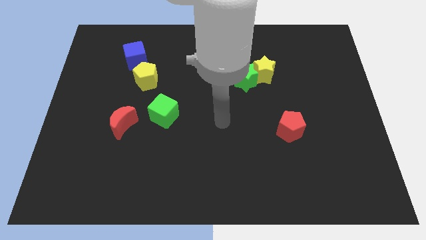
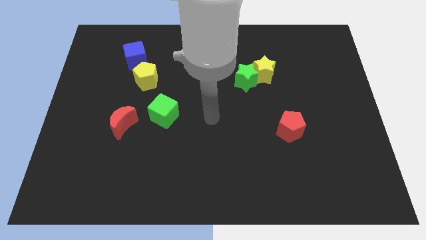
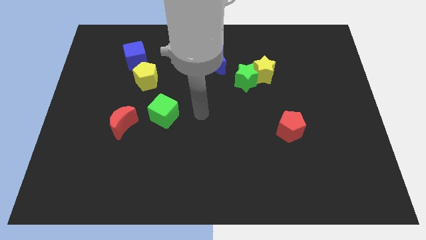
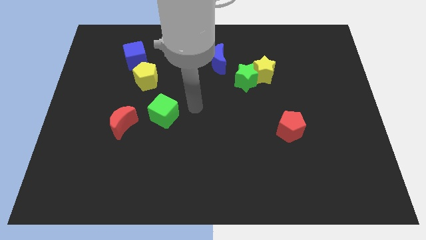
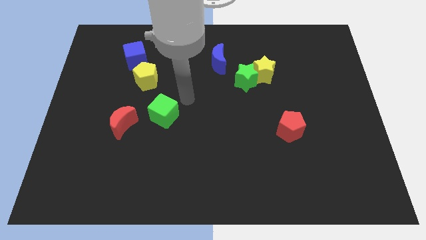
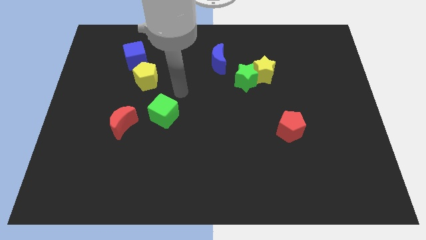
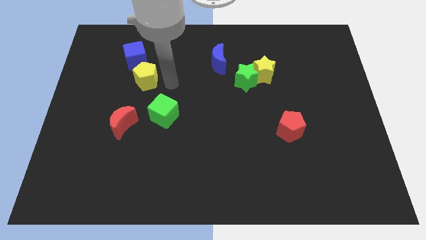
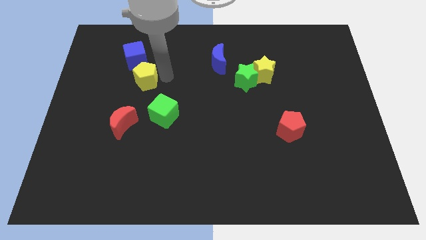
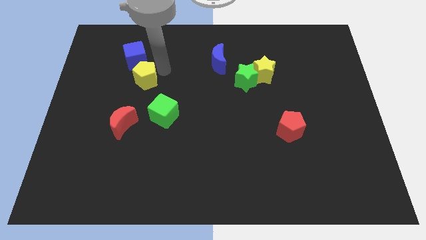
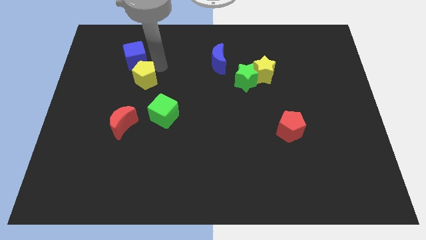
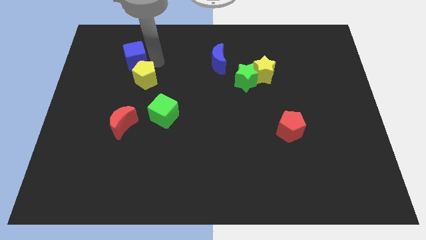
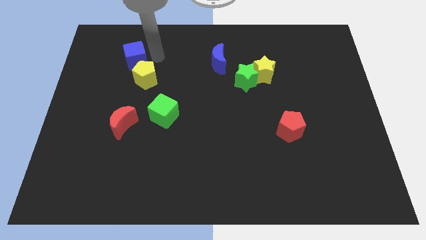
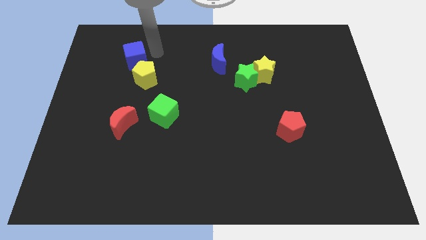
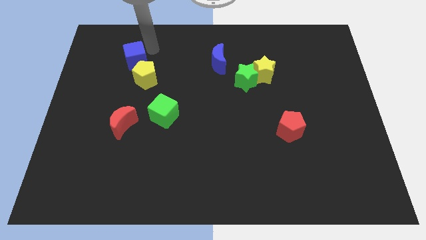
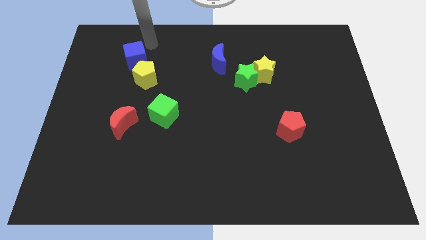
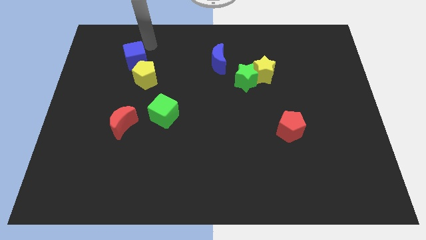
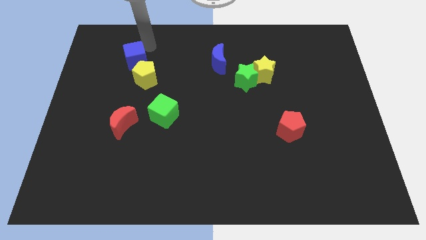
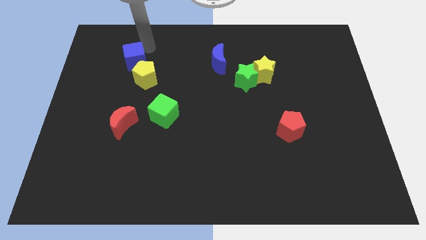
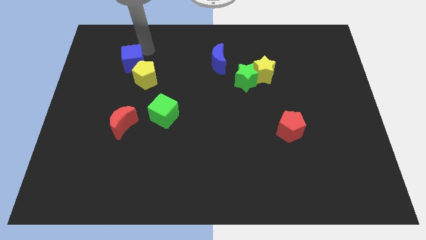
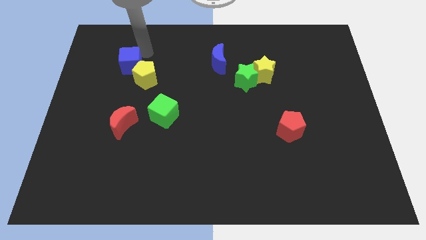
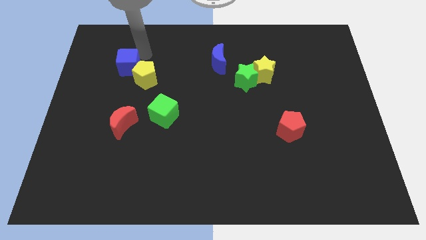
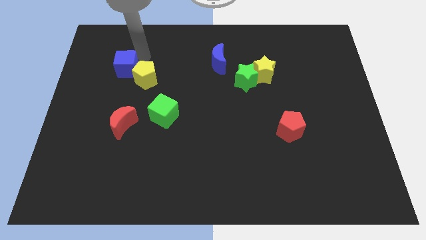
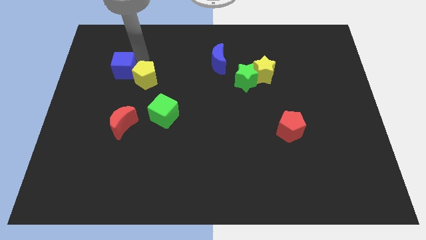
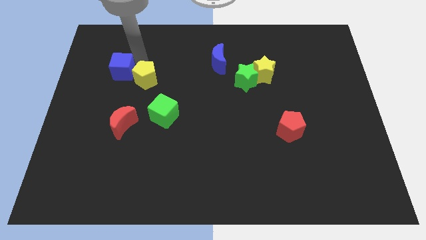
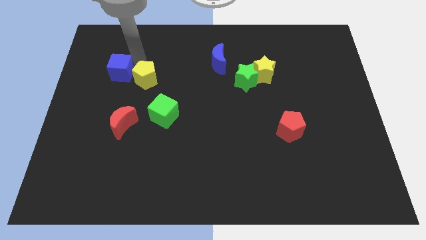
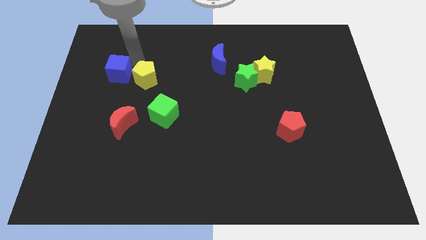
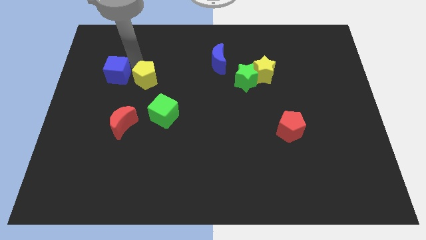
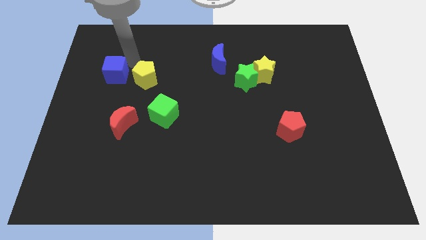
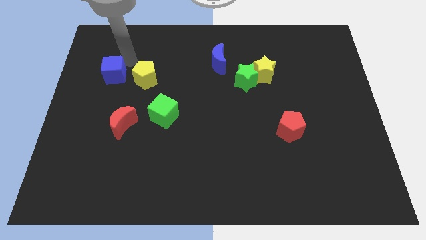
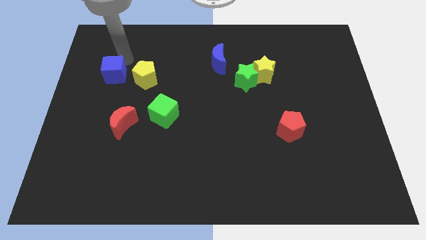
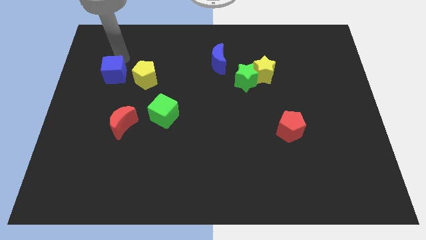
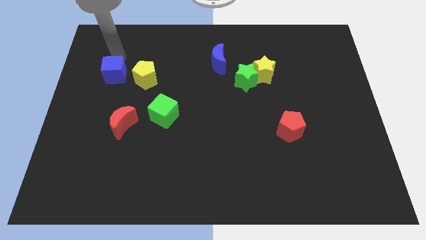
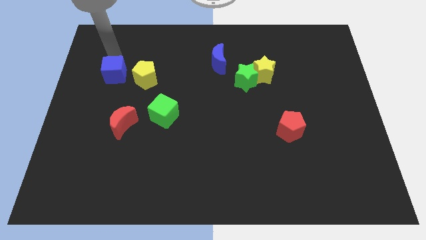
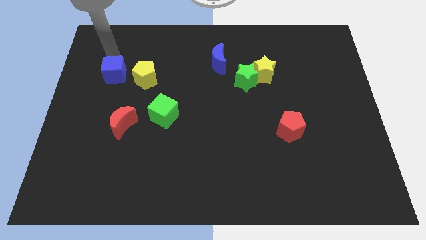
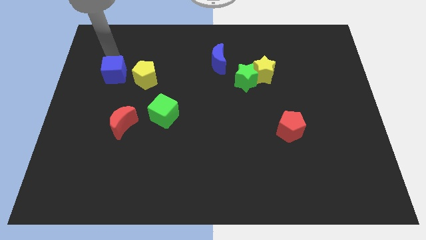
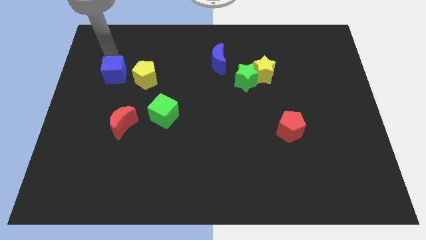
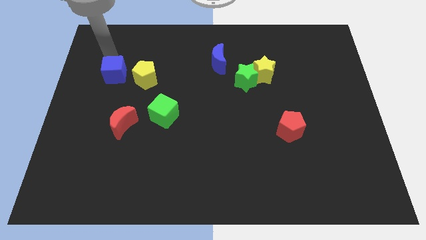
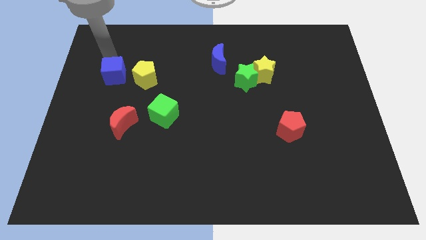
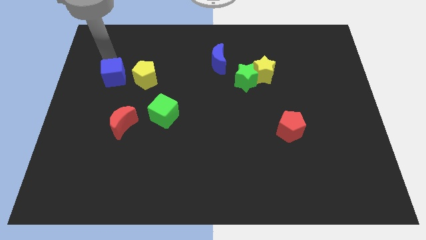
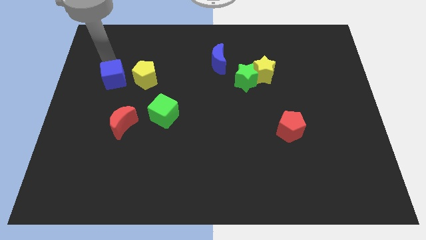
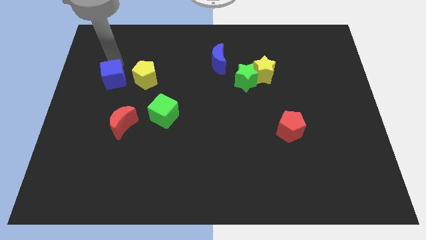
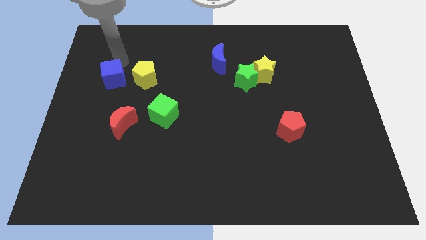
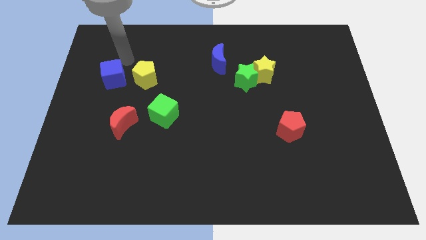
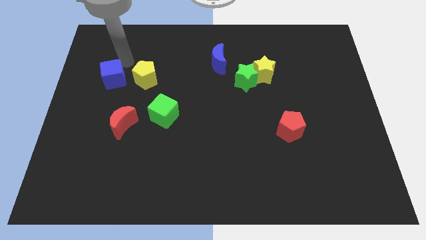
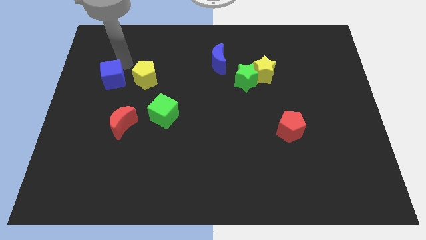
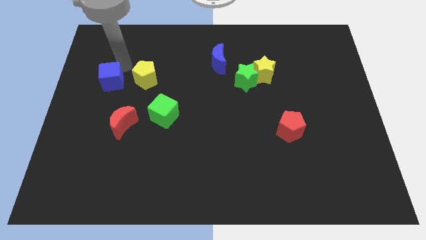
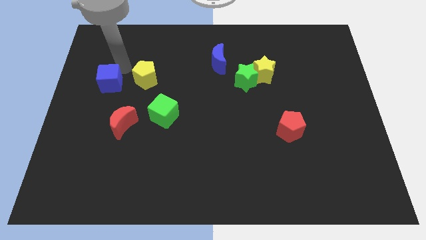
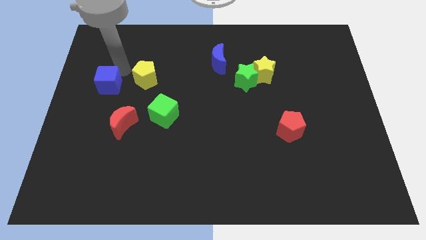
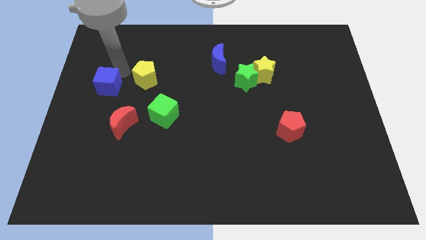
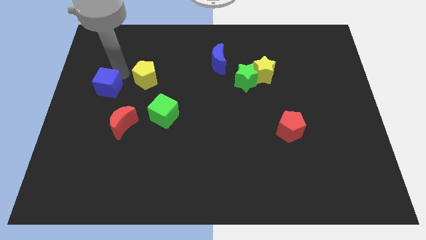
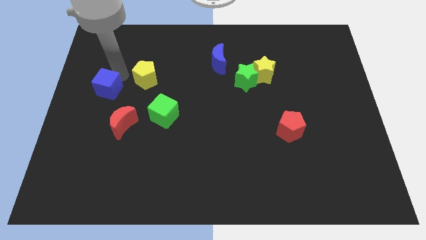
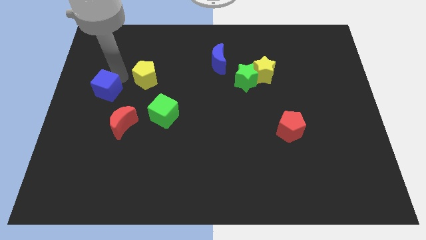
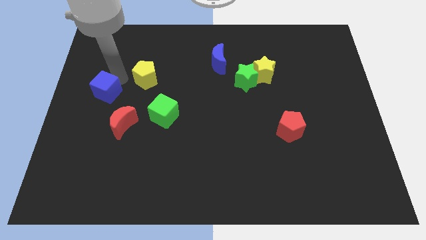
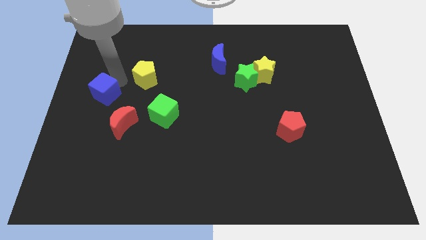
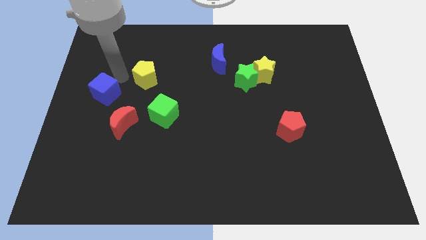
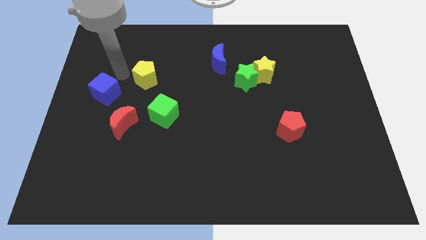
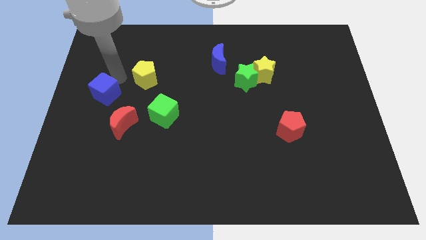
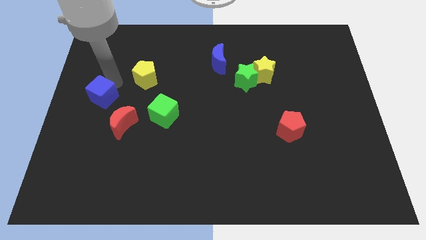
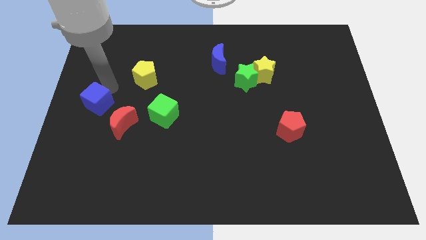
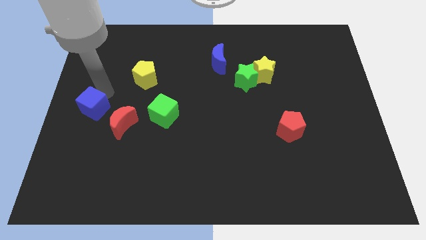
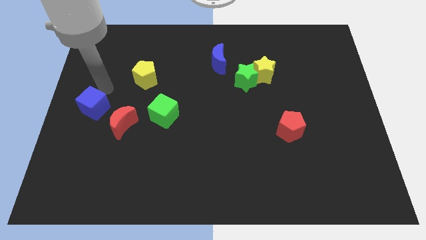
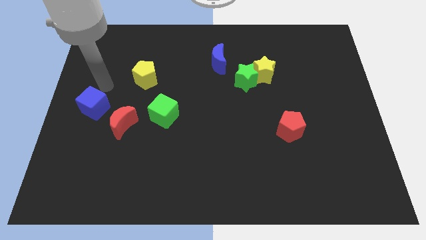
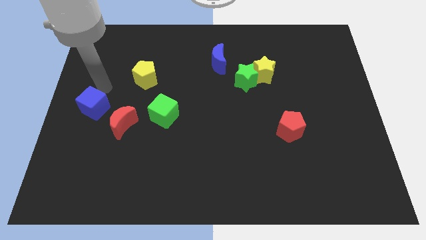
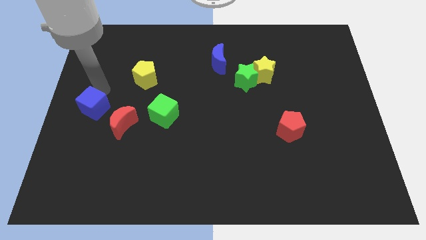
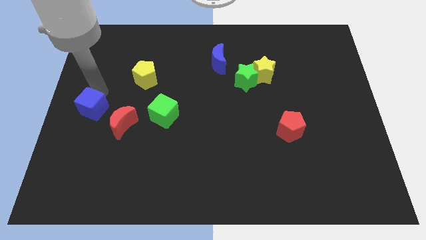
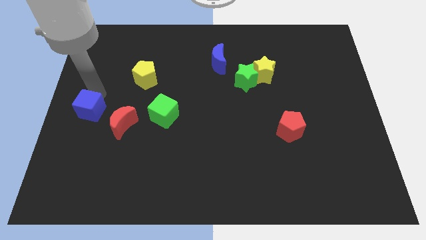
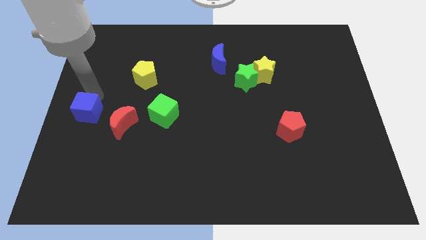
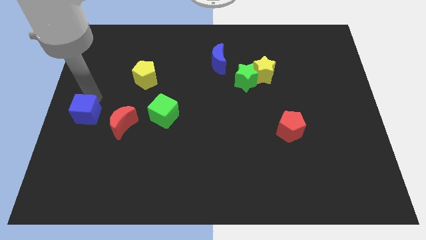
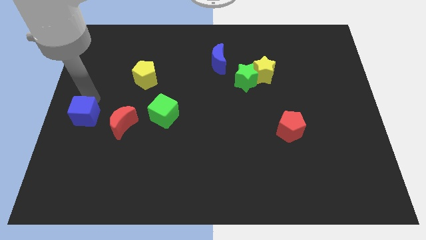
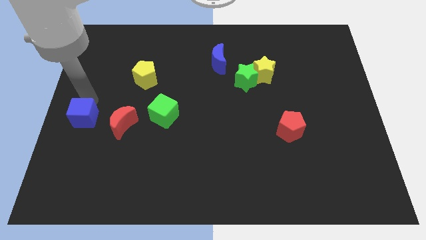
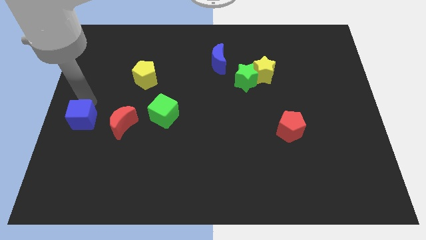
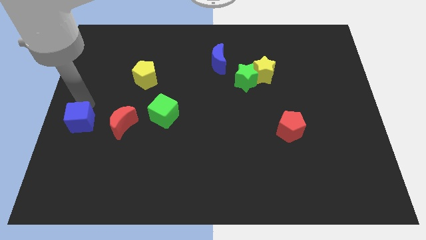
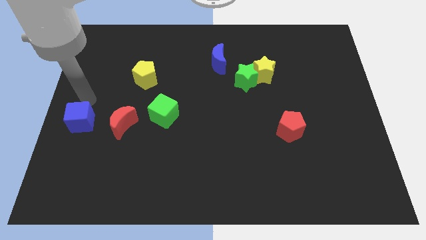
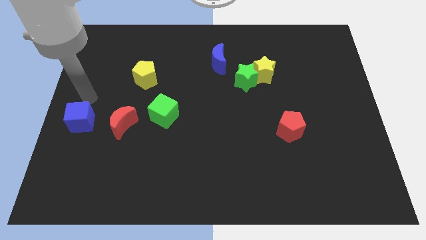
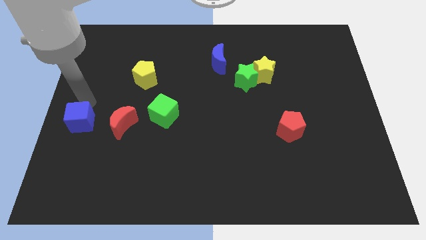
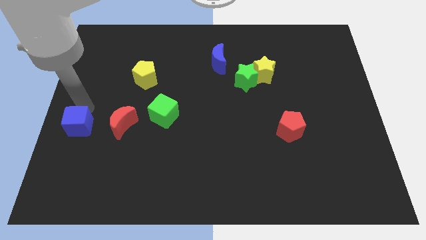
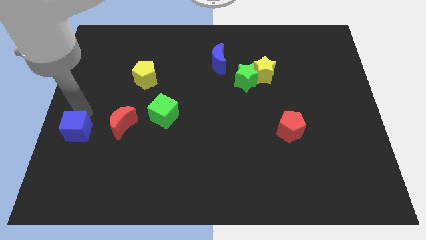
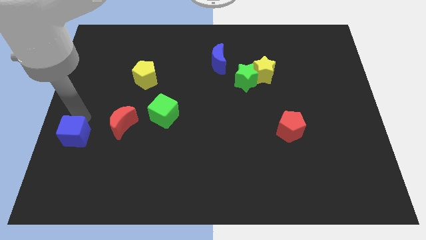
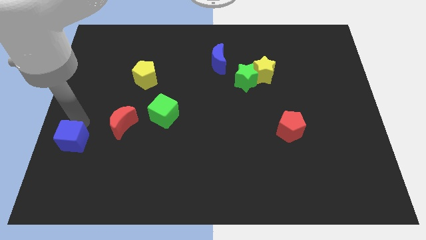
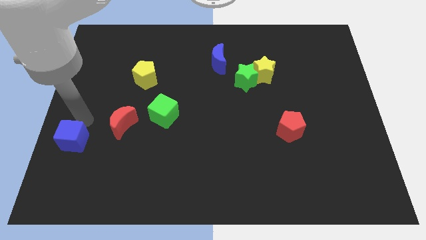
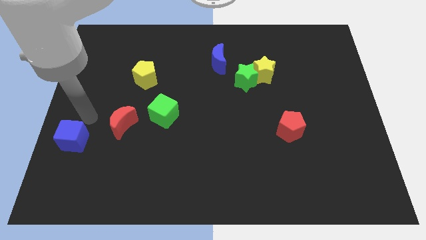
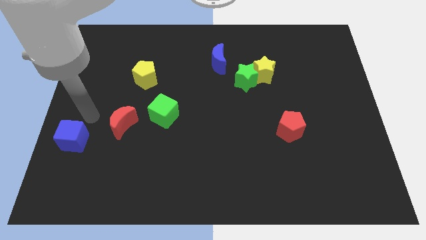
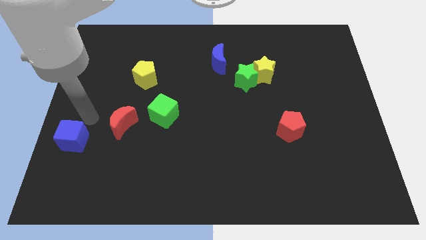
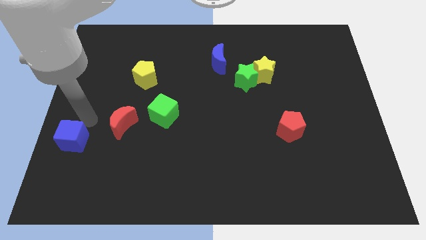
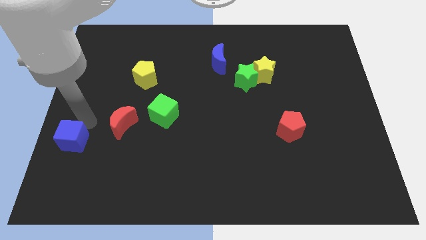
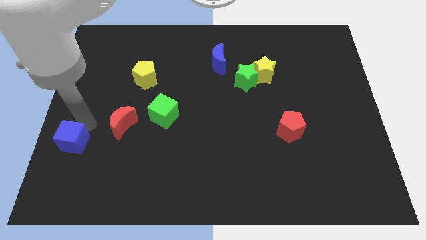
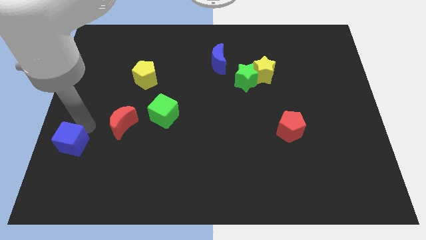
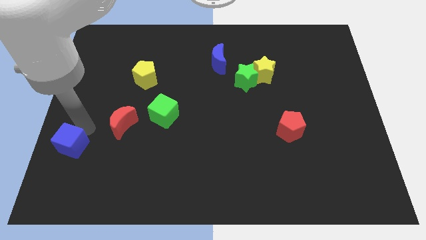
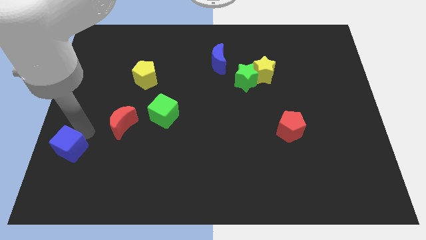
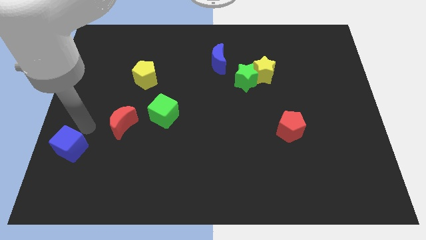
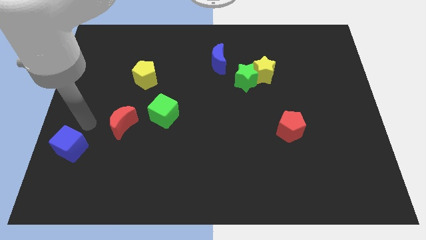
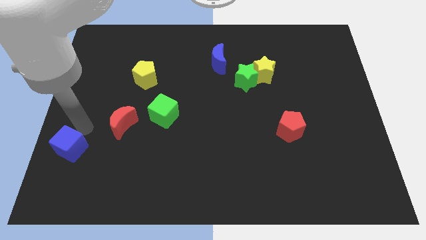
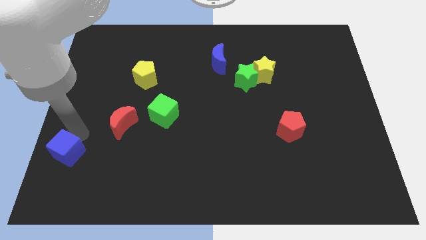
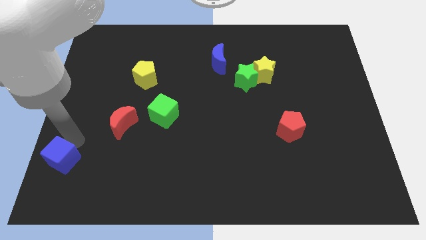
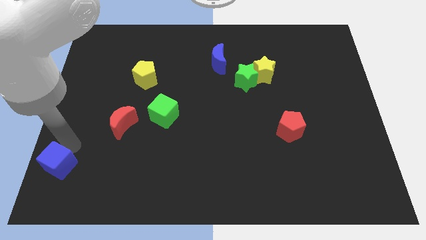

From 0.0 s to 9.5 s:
put the blue cube to the lower left corner
